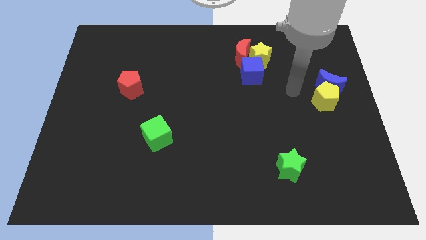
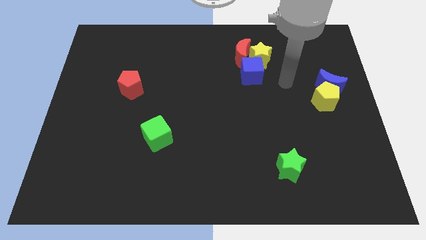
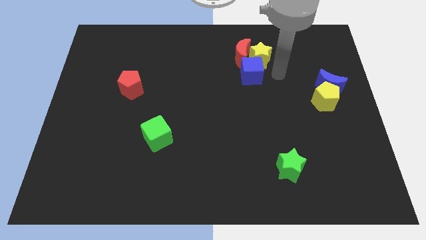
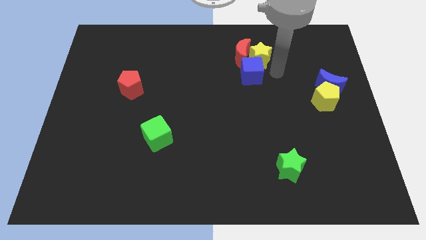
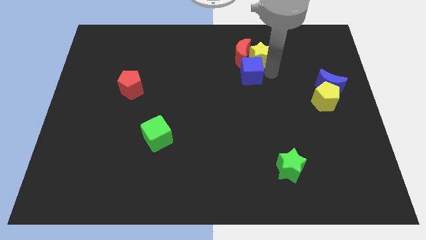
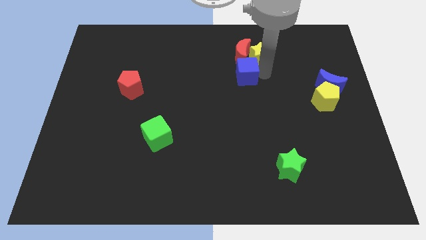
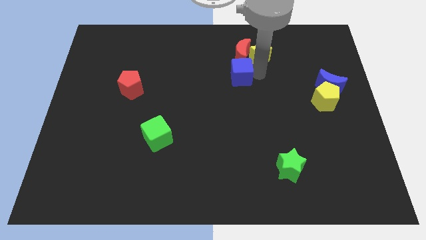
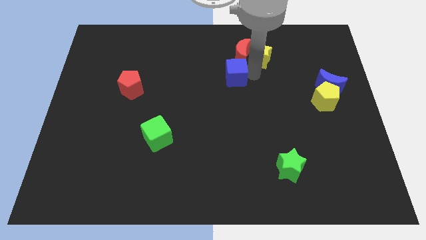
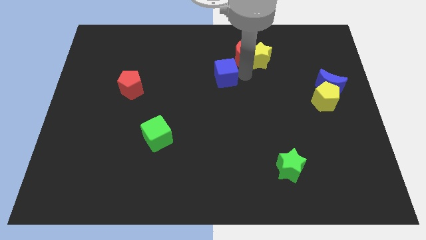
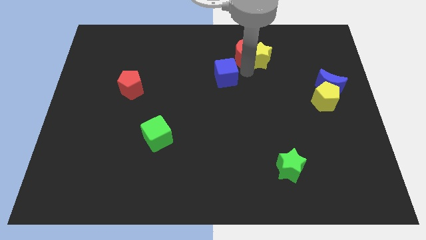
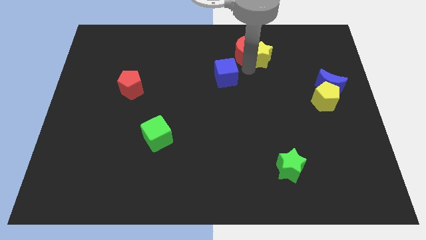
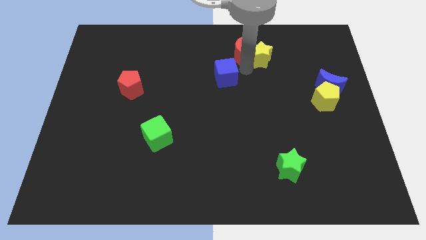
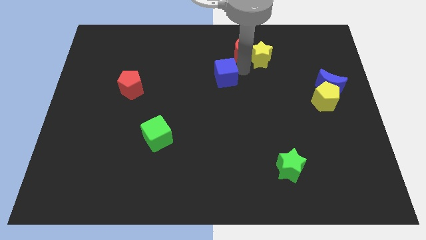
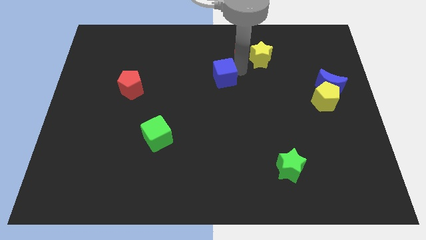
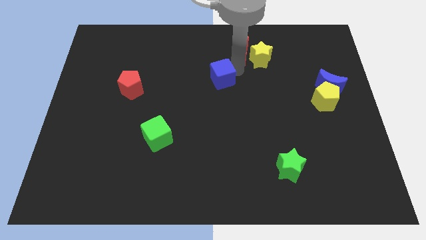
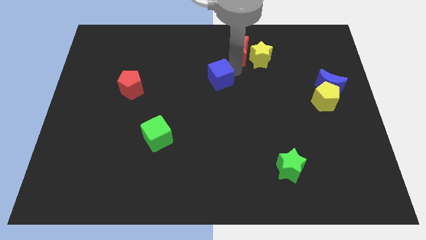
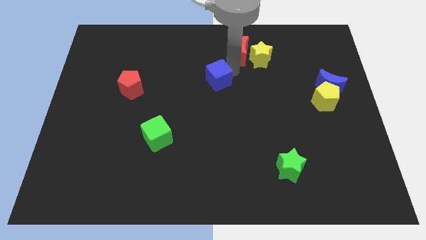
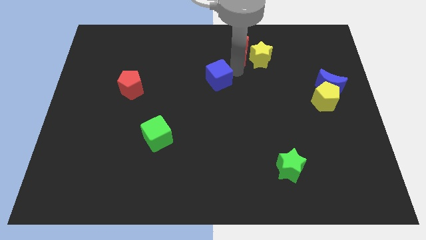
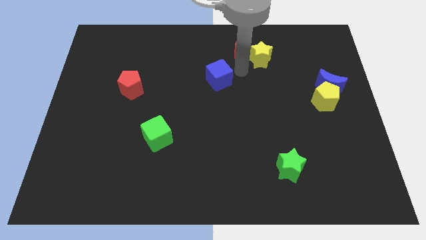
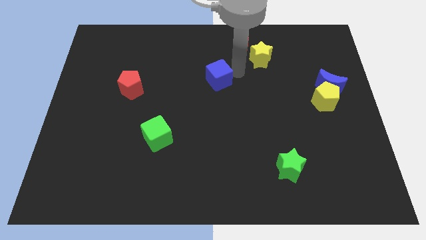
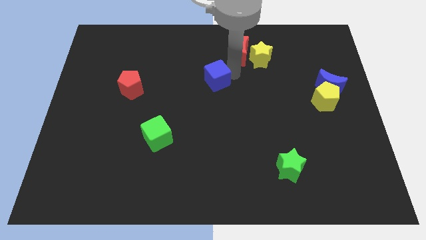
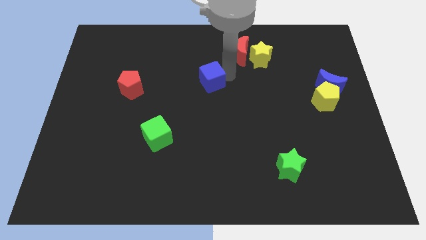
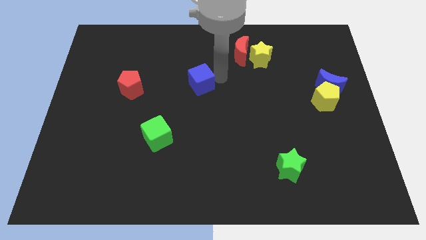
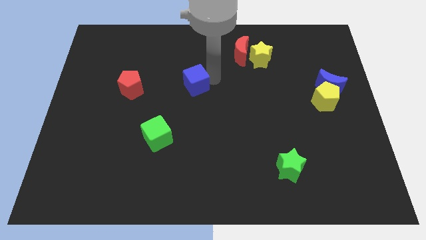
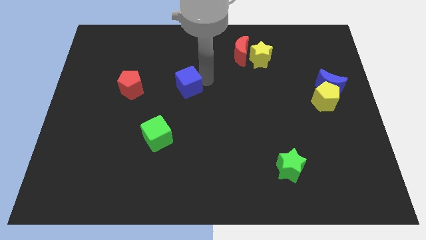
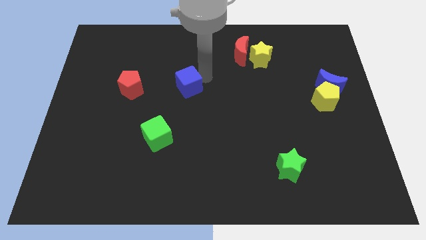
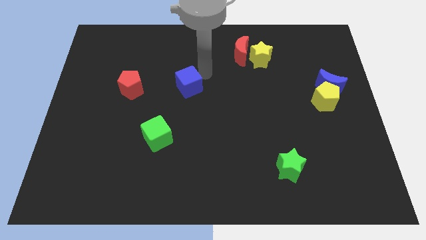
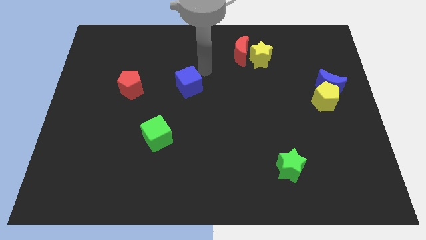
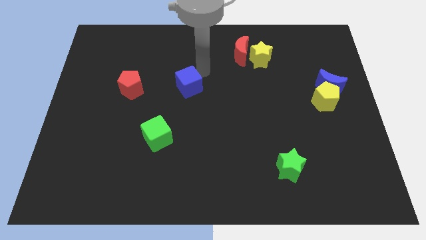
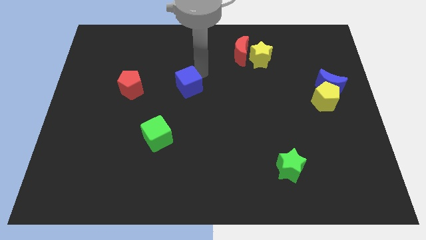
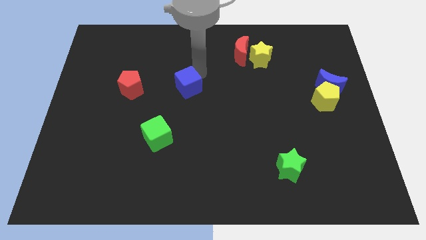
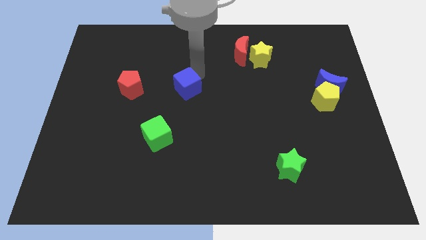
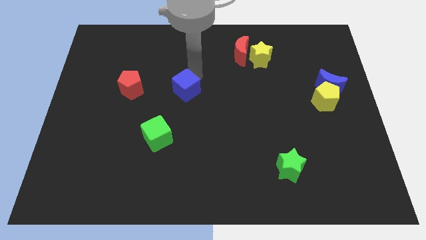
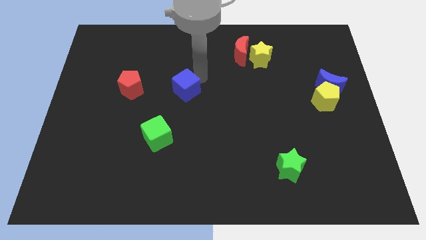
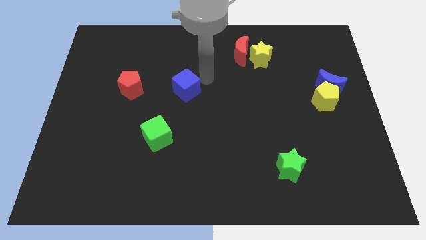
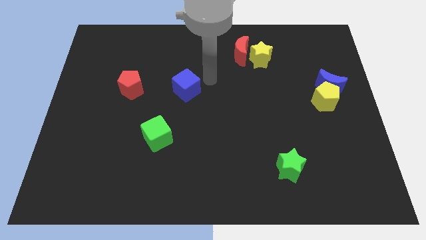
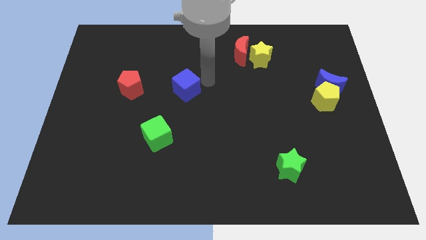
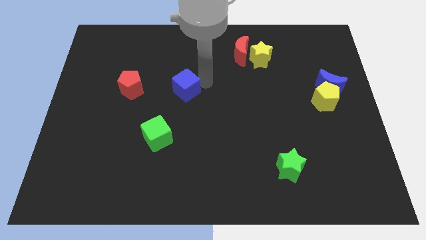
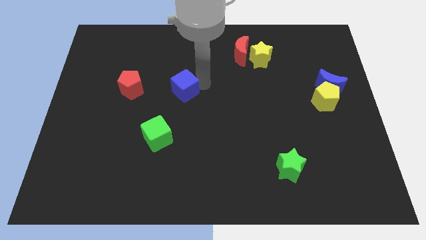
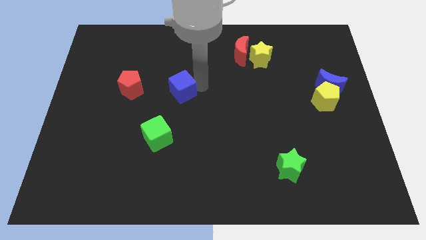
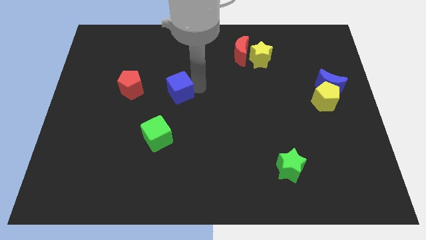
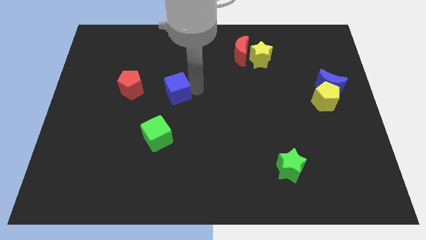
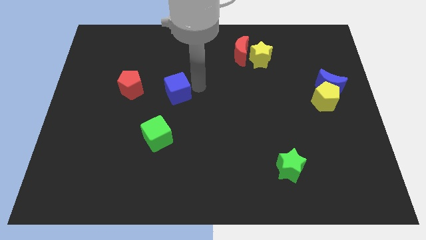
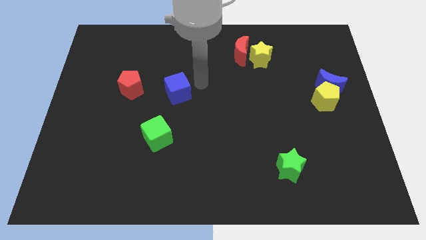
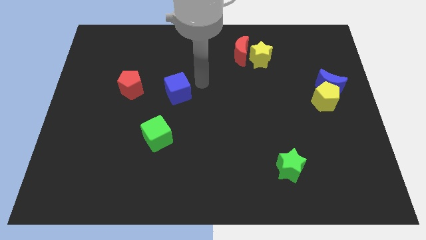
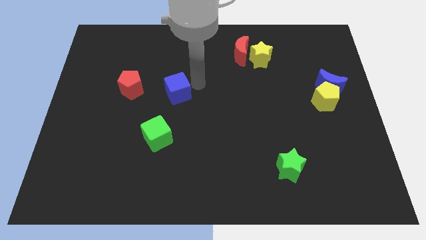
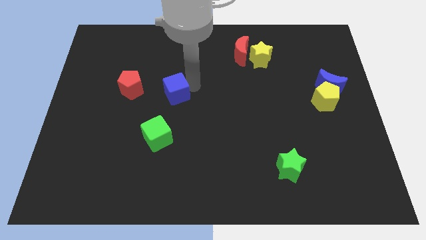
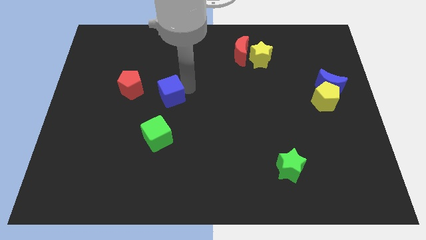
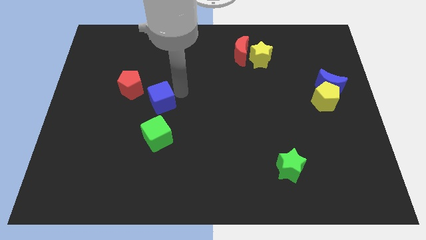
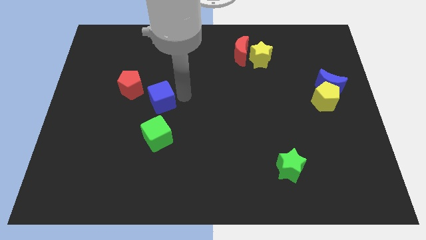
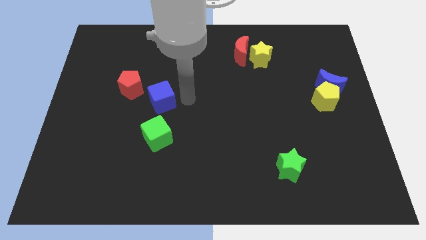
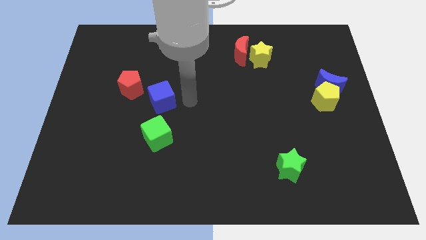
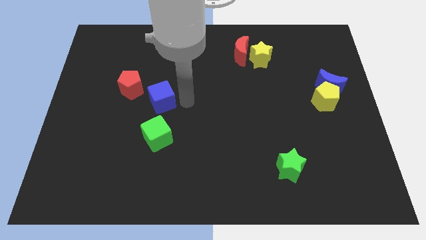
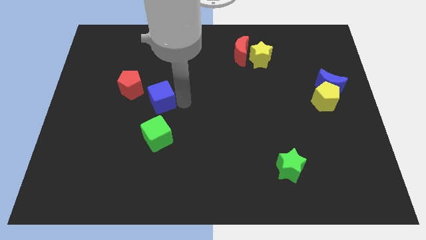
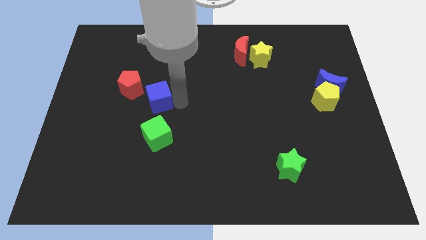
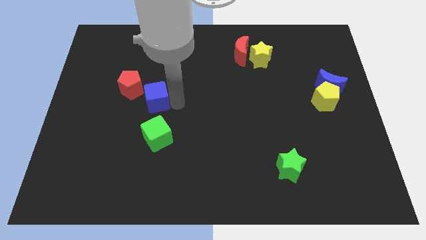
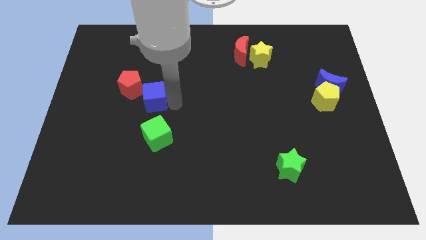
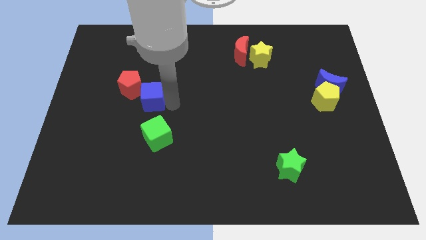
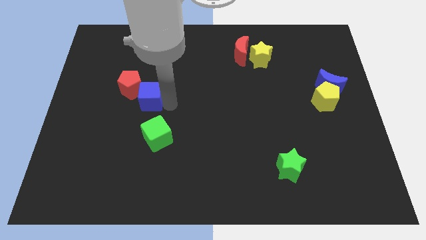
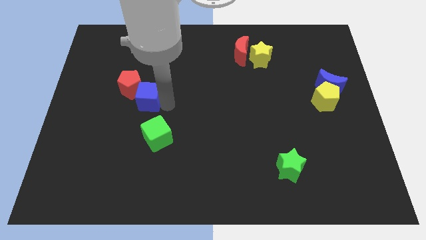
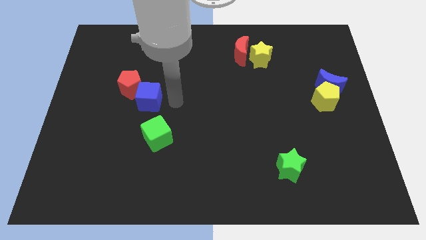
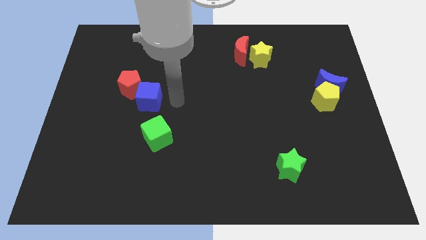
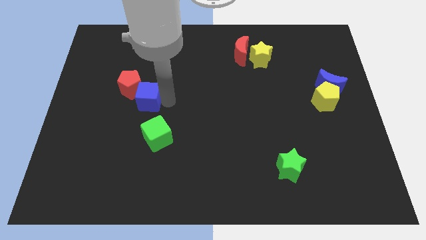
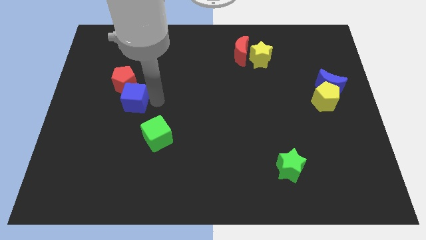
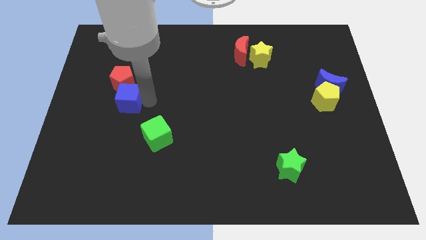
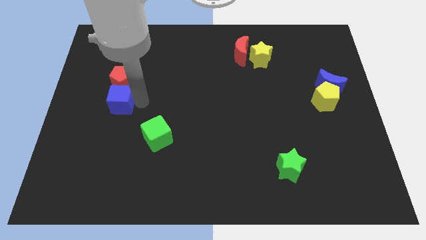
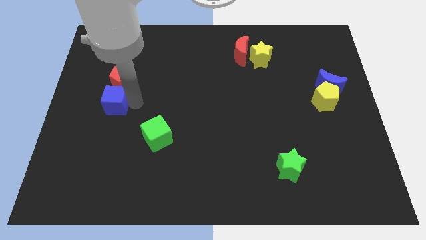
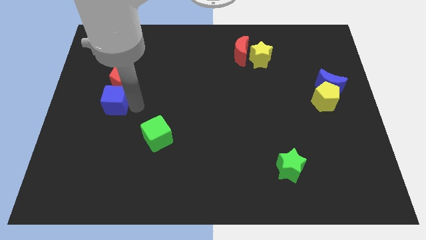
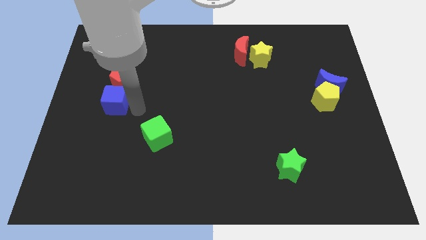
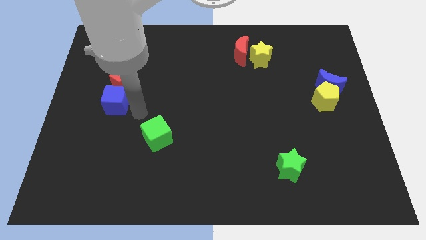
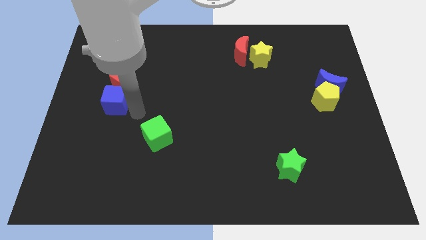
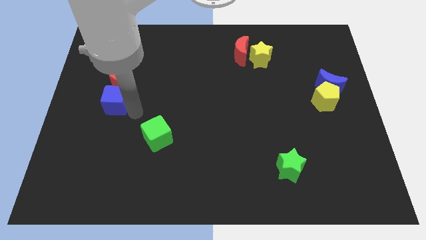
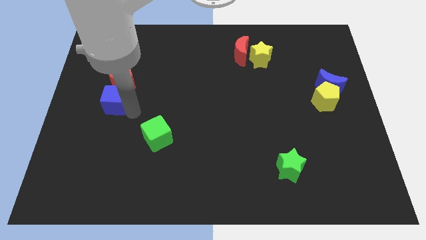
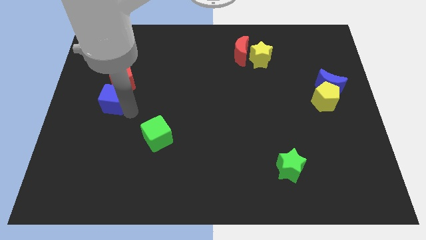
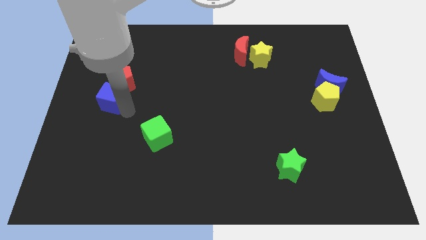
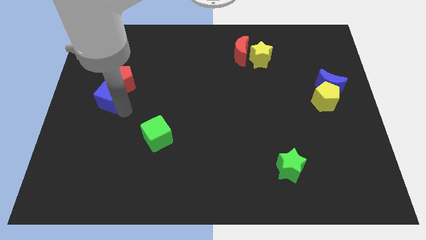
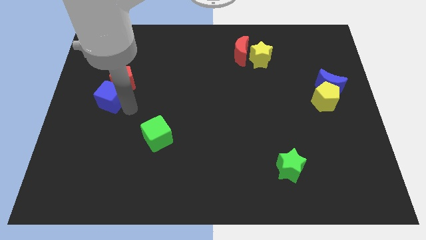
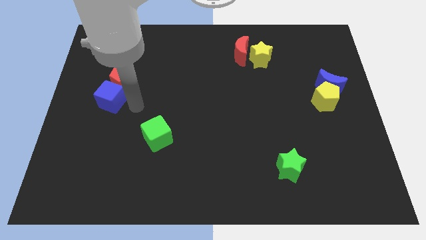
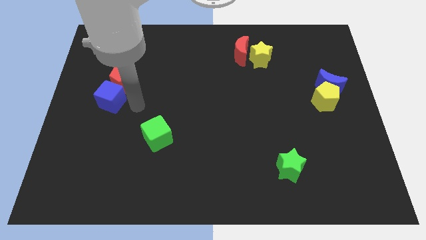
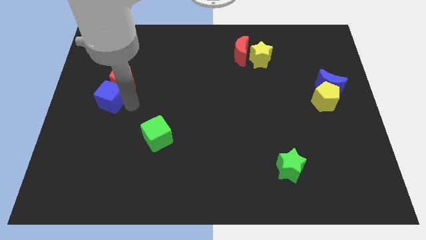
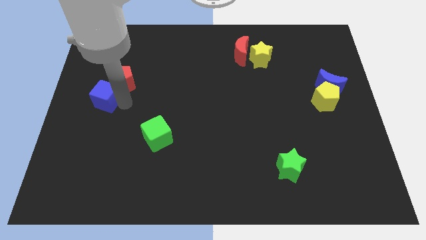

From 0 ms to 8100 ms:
push the blue cube to the center left
